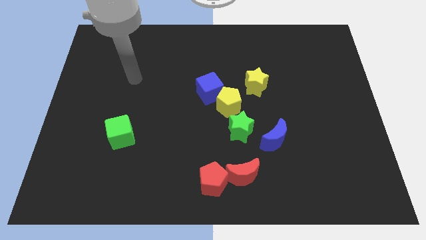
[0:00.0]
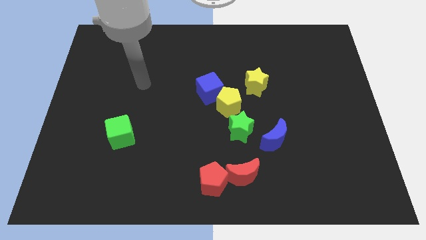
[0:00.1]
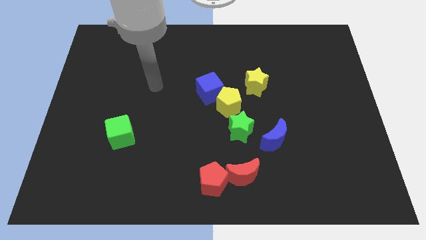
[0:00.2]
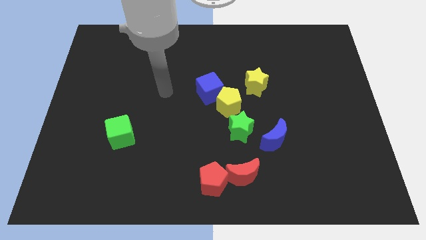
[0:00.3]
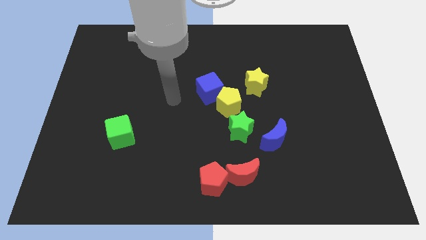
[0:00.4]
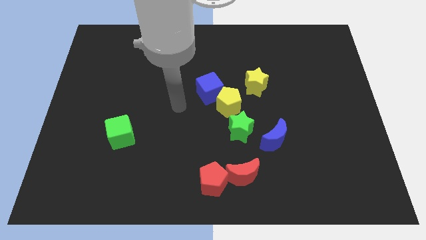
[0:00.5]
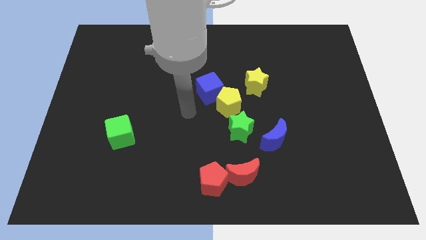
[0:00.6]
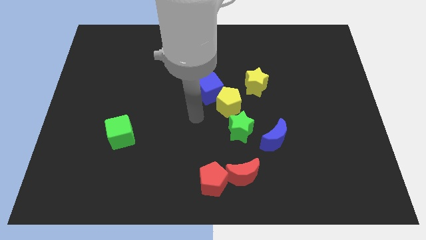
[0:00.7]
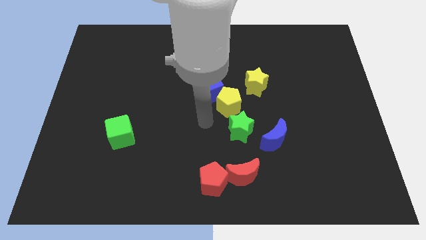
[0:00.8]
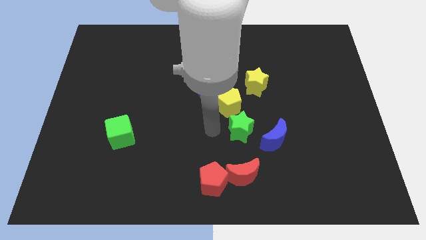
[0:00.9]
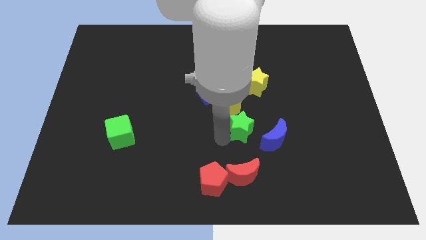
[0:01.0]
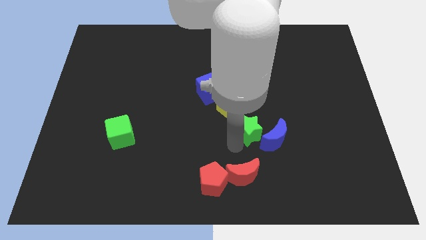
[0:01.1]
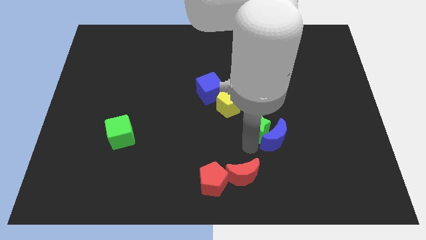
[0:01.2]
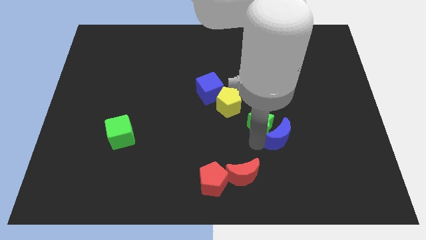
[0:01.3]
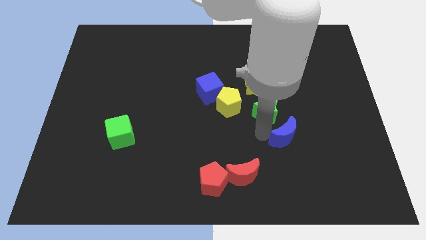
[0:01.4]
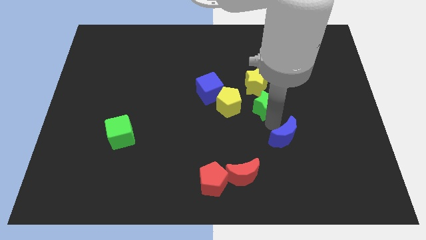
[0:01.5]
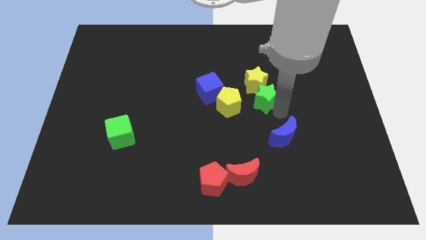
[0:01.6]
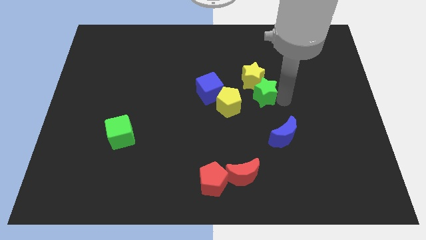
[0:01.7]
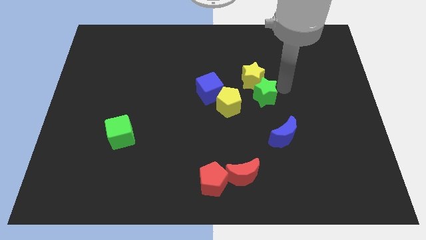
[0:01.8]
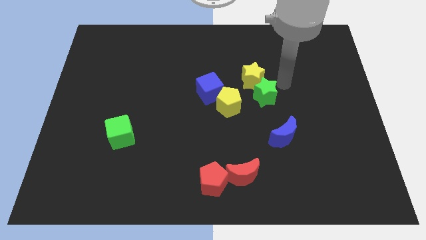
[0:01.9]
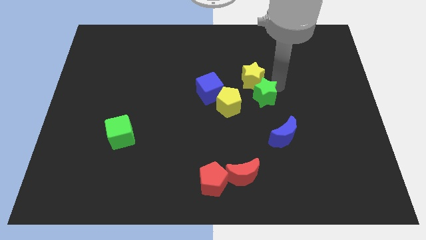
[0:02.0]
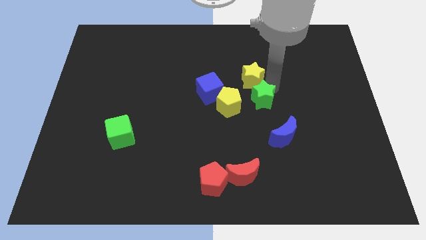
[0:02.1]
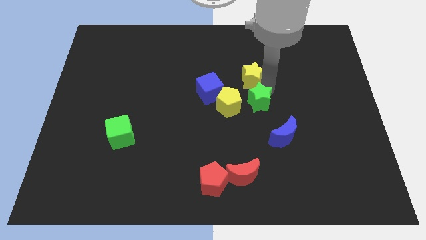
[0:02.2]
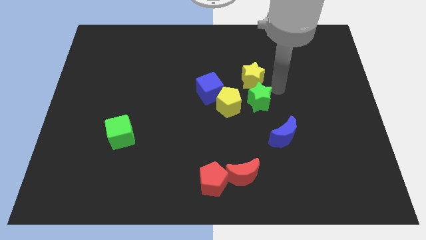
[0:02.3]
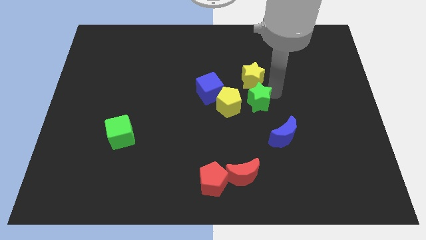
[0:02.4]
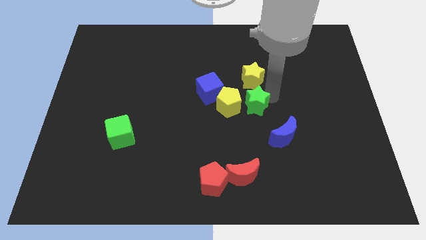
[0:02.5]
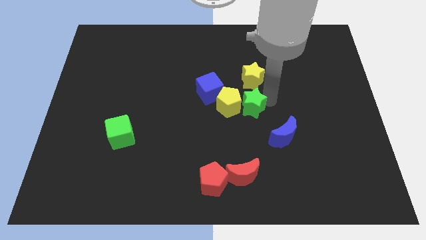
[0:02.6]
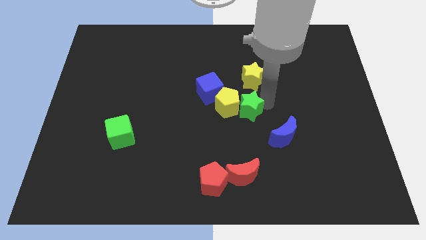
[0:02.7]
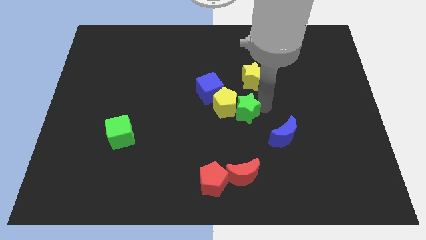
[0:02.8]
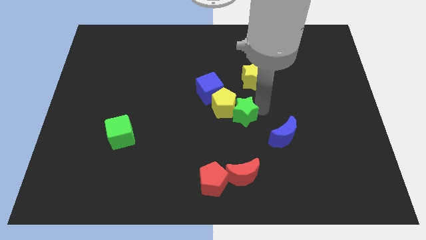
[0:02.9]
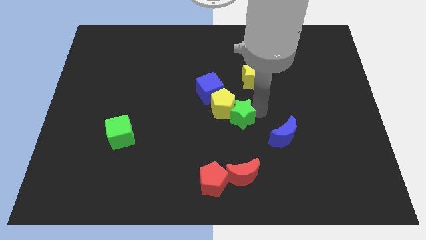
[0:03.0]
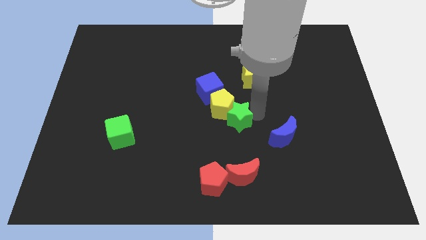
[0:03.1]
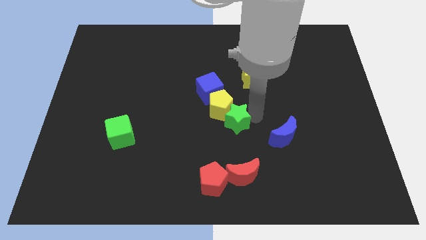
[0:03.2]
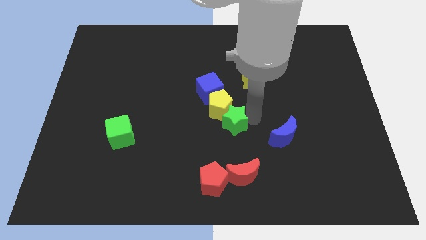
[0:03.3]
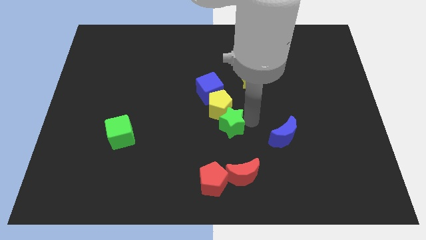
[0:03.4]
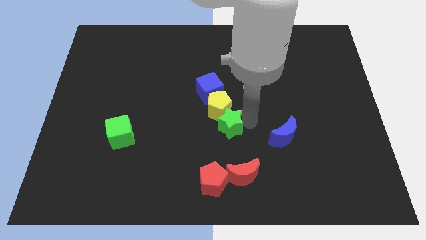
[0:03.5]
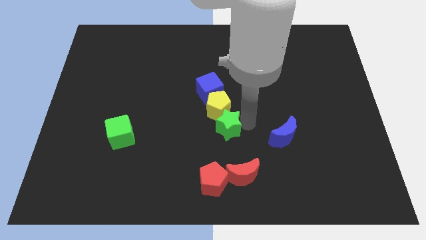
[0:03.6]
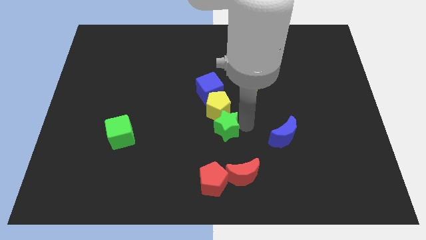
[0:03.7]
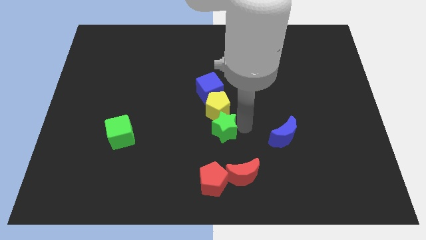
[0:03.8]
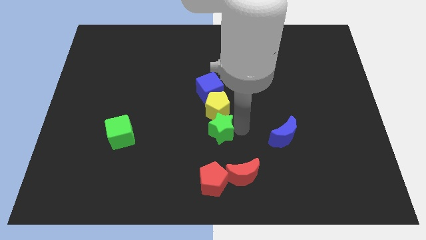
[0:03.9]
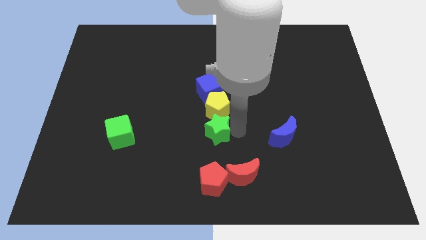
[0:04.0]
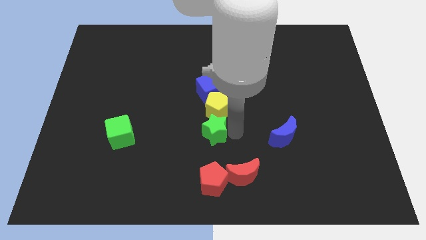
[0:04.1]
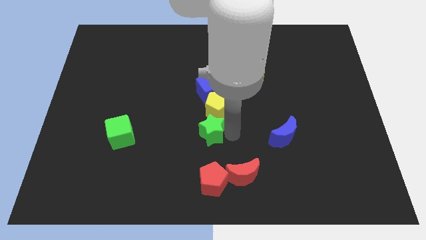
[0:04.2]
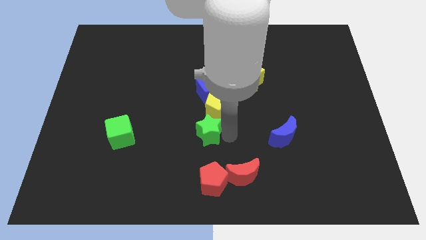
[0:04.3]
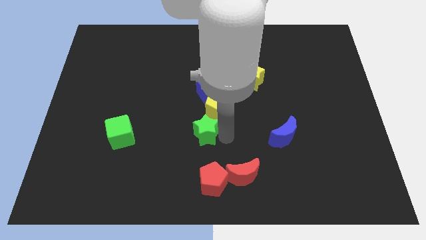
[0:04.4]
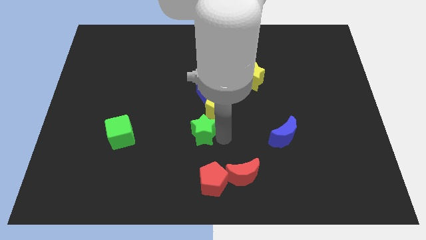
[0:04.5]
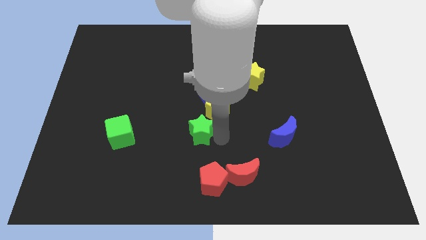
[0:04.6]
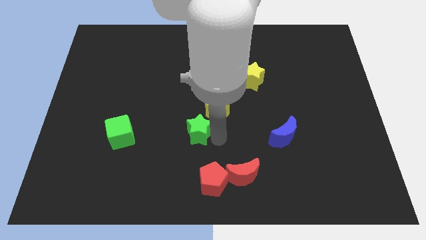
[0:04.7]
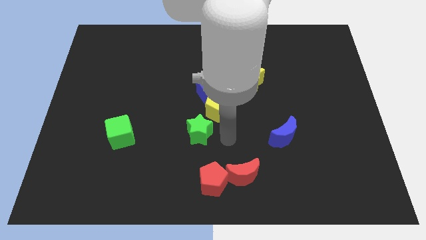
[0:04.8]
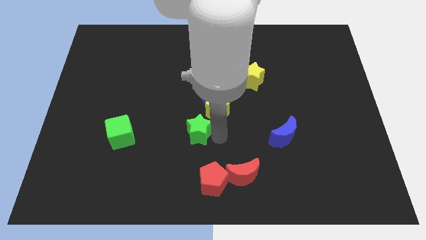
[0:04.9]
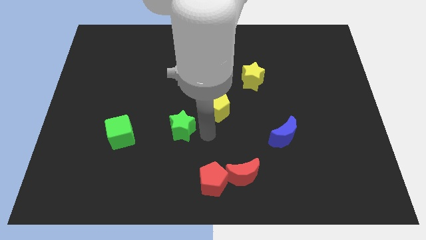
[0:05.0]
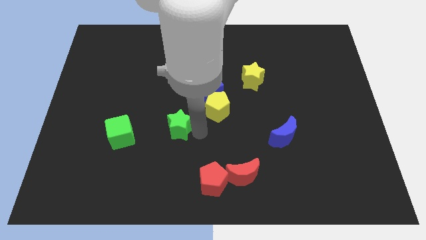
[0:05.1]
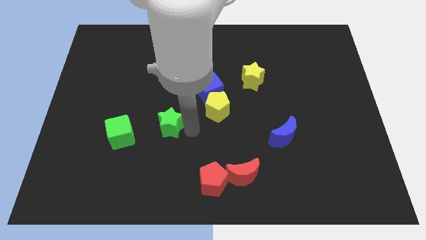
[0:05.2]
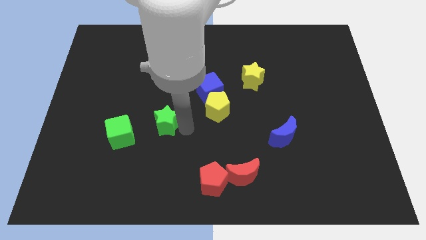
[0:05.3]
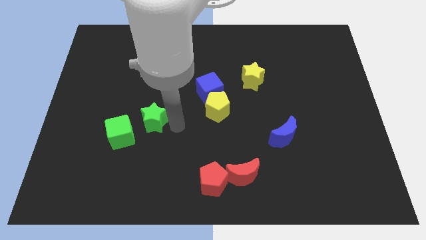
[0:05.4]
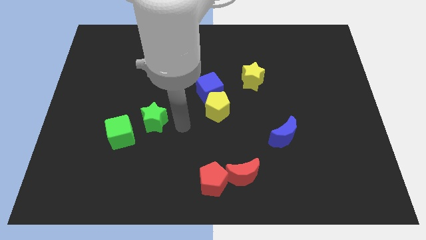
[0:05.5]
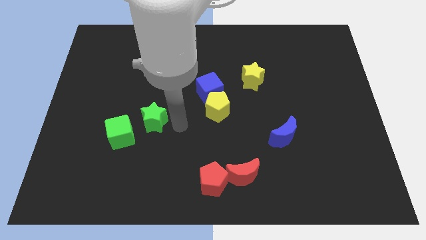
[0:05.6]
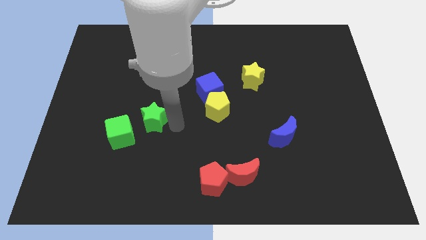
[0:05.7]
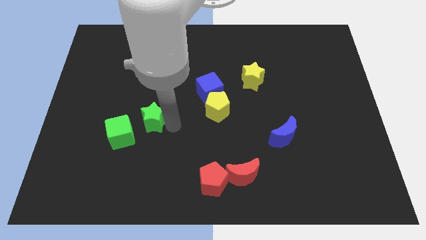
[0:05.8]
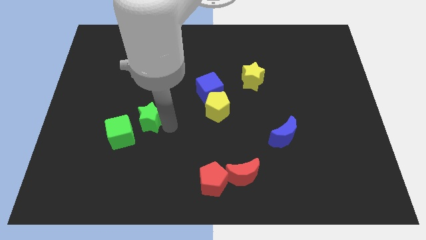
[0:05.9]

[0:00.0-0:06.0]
slide the green star to the left

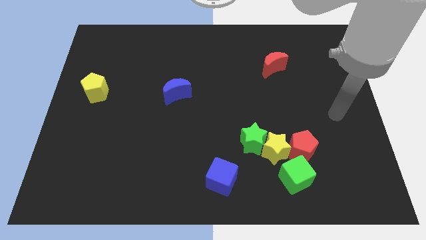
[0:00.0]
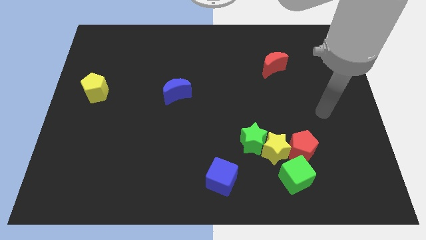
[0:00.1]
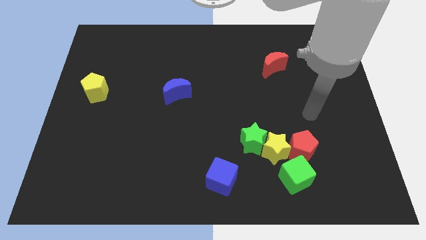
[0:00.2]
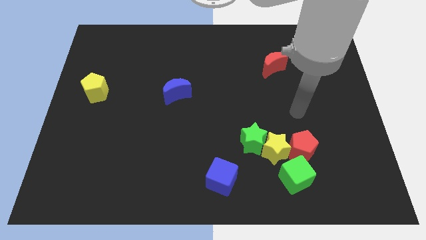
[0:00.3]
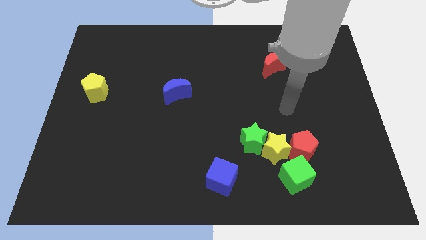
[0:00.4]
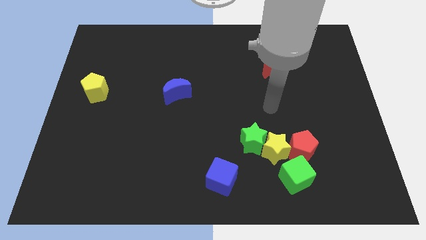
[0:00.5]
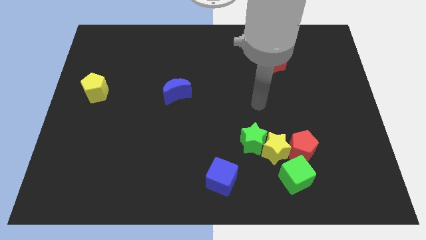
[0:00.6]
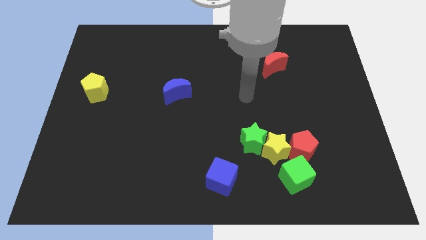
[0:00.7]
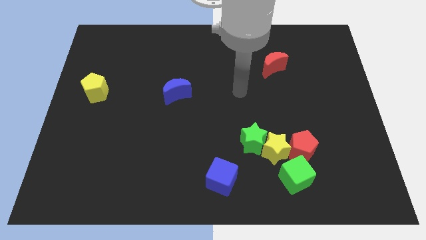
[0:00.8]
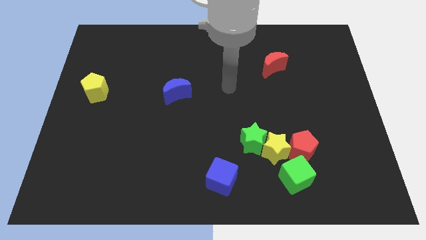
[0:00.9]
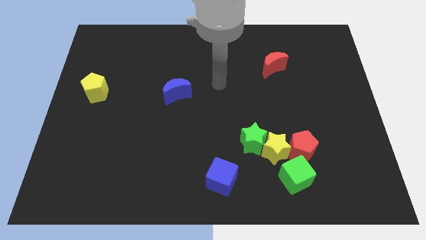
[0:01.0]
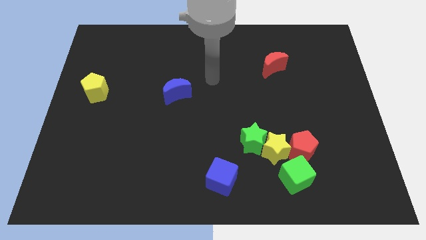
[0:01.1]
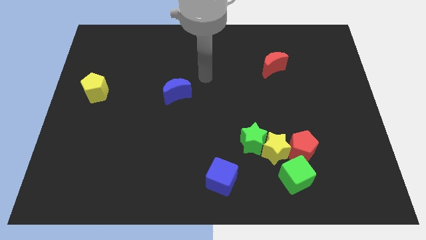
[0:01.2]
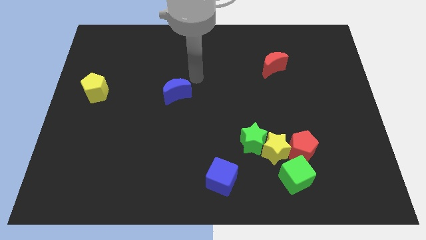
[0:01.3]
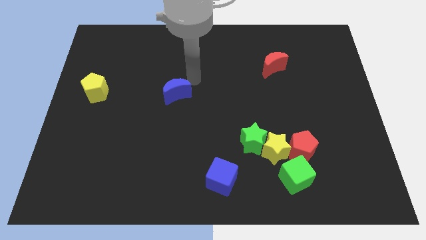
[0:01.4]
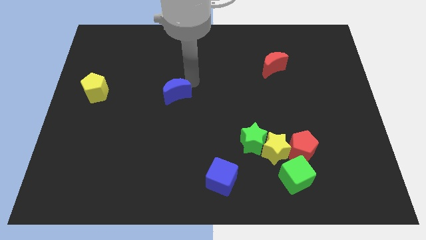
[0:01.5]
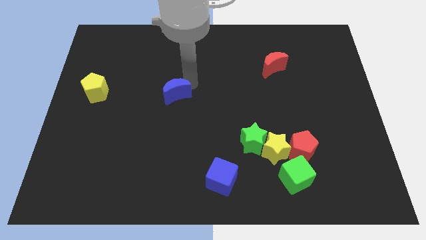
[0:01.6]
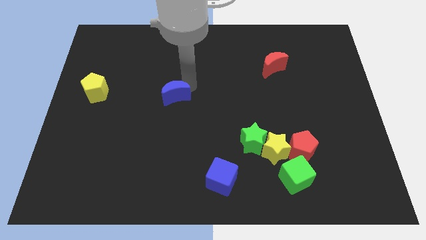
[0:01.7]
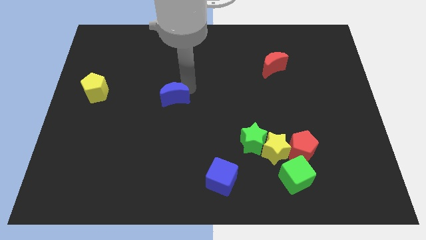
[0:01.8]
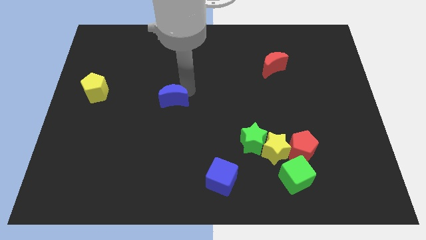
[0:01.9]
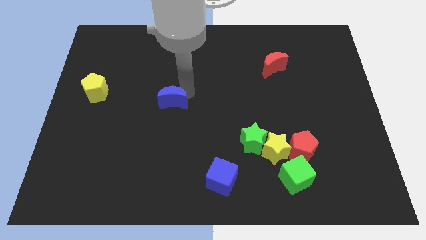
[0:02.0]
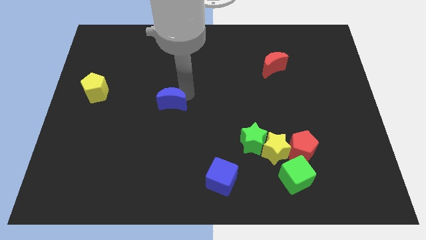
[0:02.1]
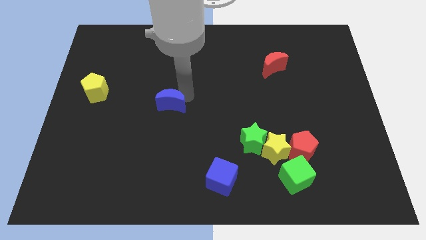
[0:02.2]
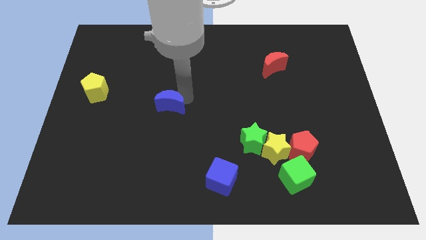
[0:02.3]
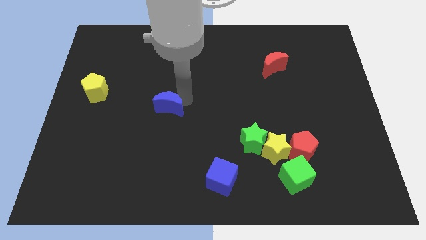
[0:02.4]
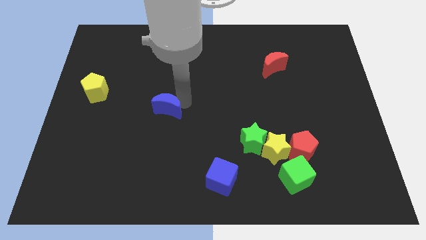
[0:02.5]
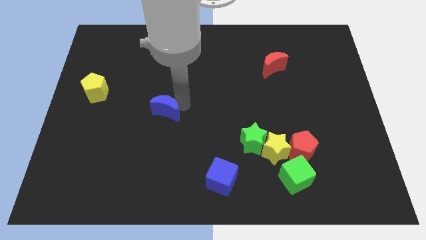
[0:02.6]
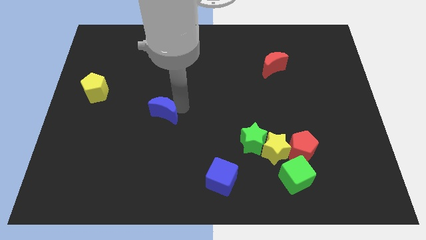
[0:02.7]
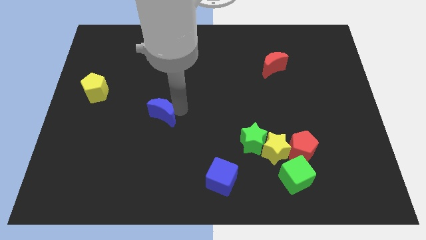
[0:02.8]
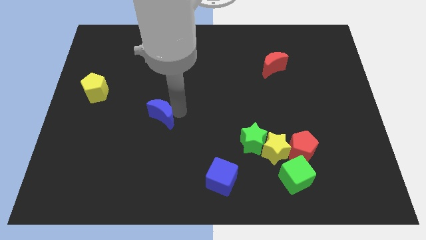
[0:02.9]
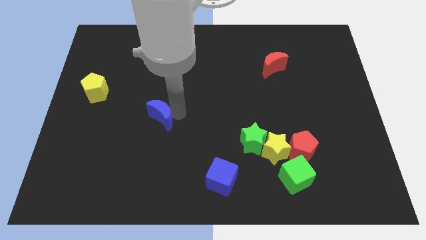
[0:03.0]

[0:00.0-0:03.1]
move the blue moon downwards and left diagonally a little bit
